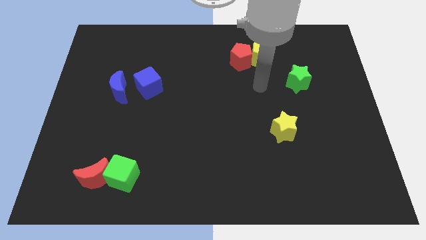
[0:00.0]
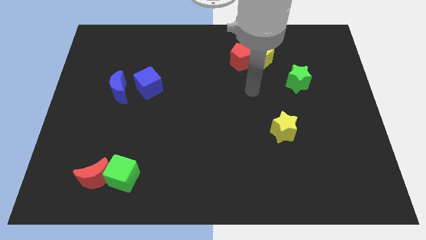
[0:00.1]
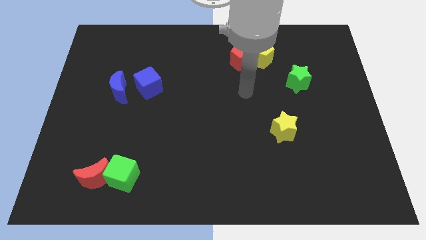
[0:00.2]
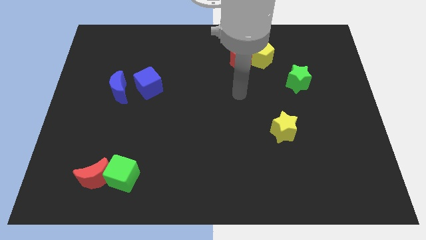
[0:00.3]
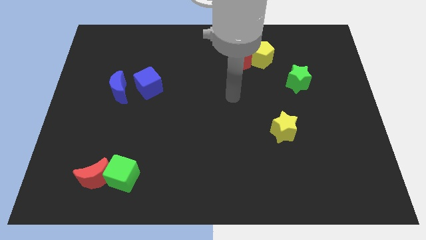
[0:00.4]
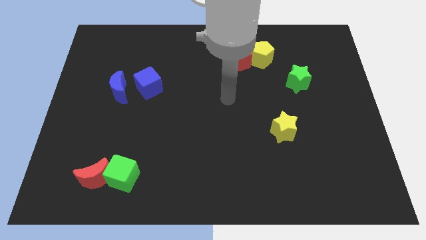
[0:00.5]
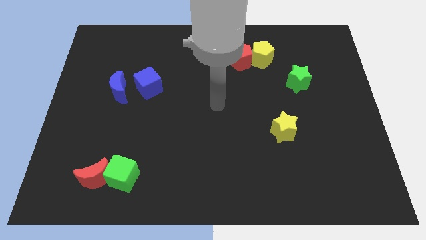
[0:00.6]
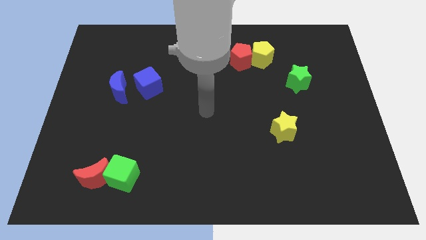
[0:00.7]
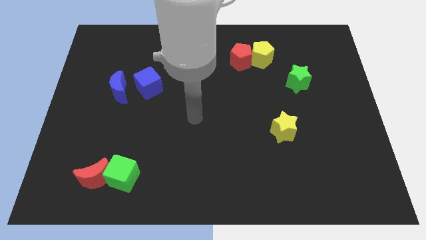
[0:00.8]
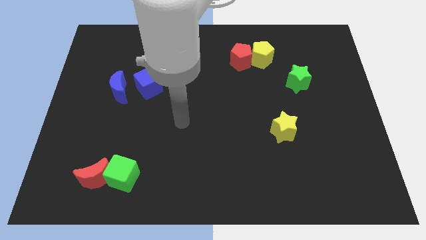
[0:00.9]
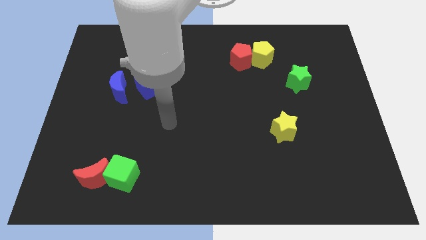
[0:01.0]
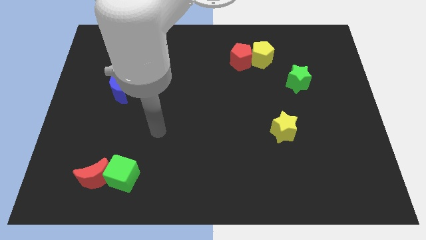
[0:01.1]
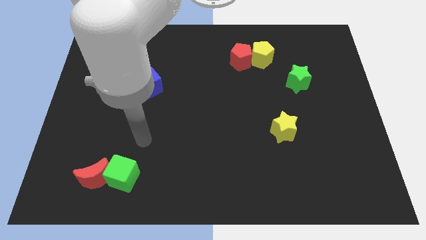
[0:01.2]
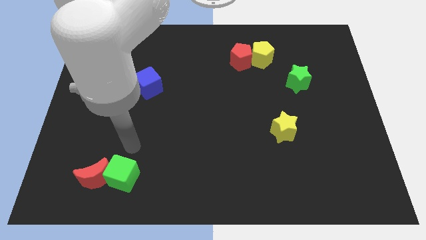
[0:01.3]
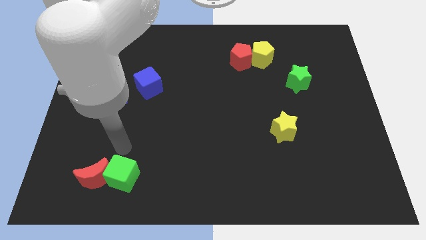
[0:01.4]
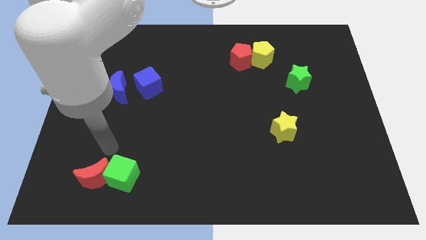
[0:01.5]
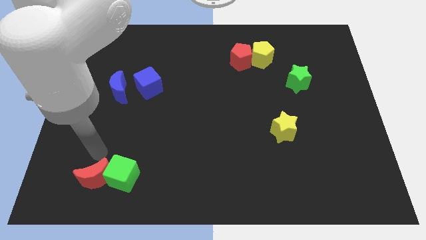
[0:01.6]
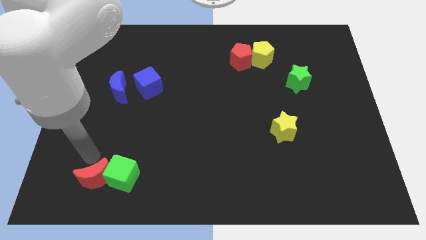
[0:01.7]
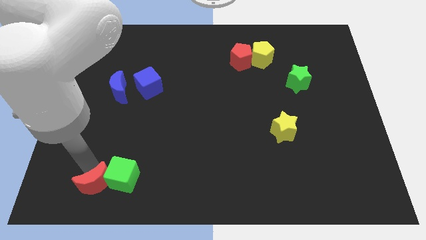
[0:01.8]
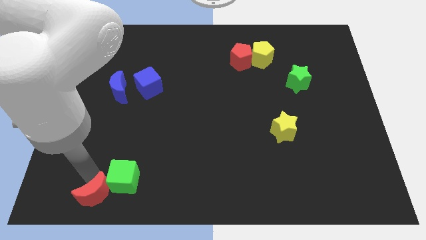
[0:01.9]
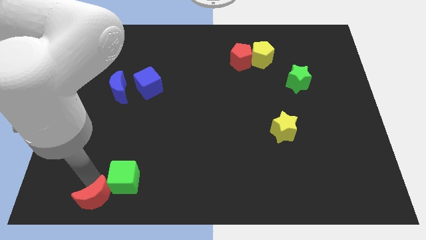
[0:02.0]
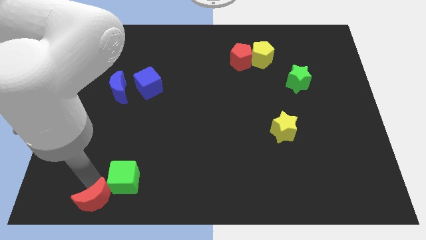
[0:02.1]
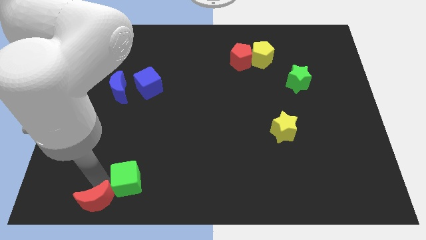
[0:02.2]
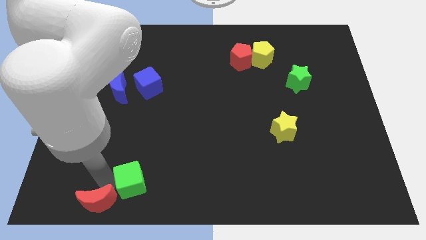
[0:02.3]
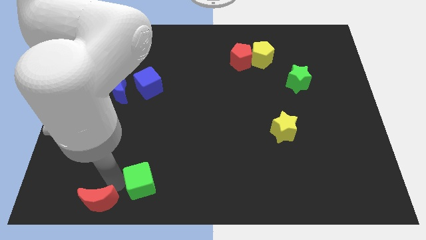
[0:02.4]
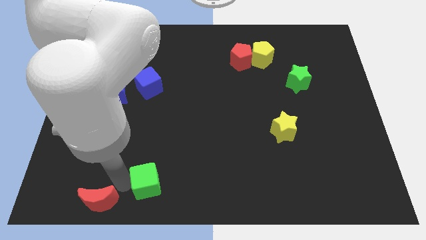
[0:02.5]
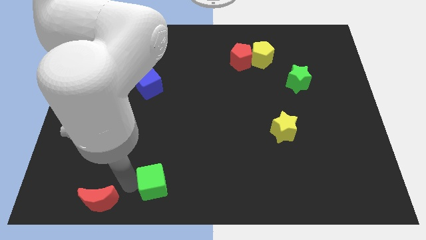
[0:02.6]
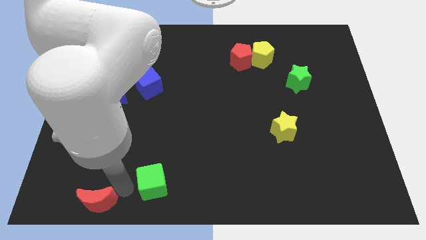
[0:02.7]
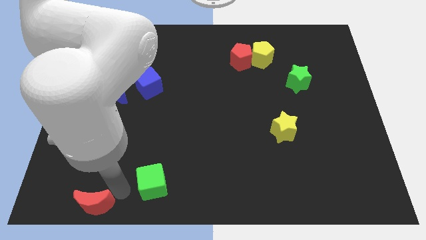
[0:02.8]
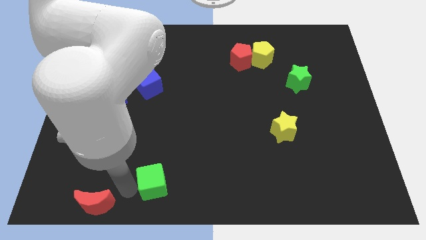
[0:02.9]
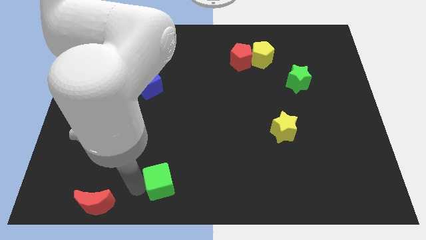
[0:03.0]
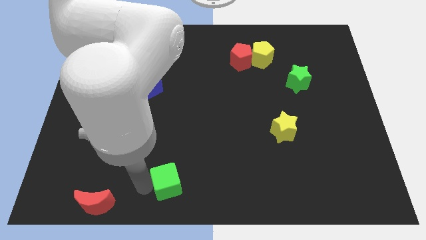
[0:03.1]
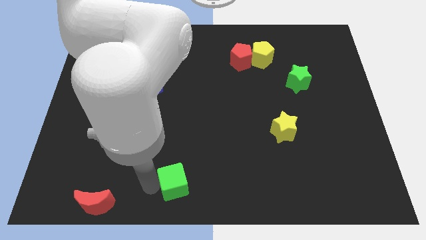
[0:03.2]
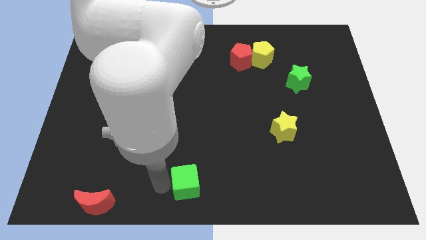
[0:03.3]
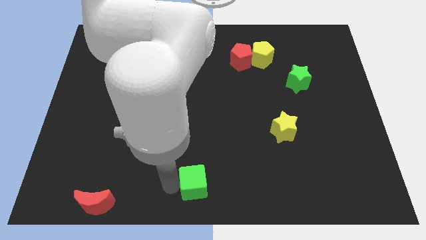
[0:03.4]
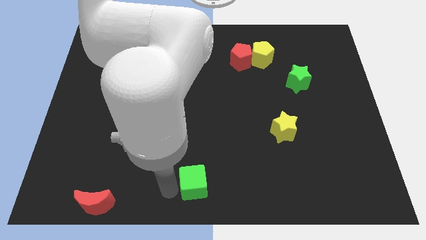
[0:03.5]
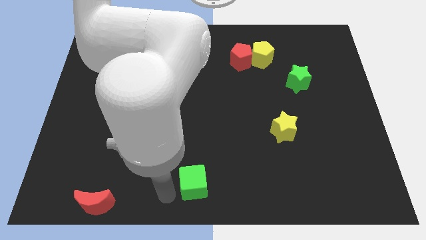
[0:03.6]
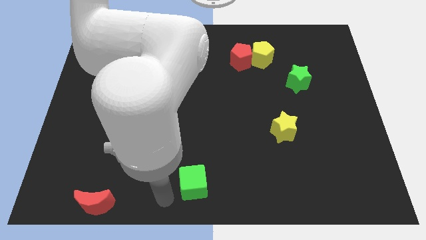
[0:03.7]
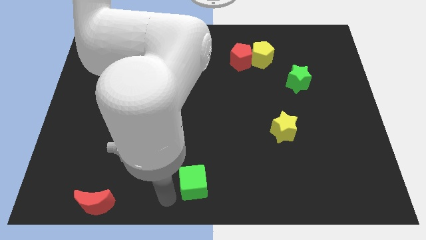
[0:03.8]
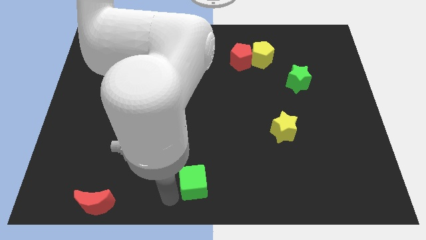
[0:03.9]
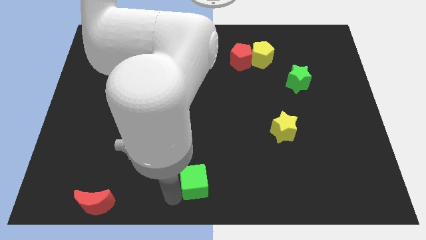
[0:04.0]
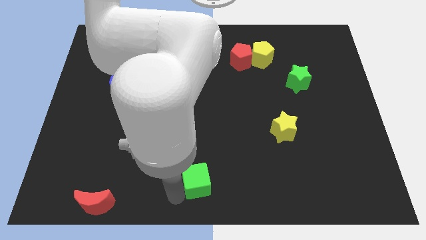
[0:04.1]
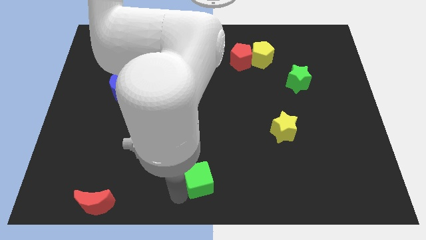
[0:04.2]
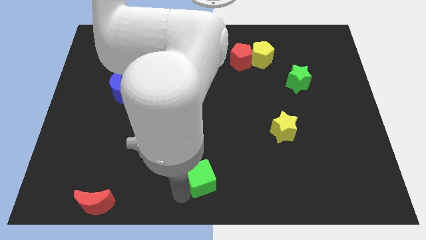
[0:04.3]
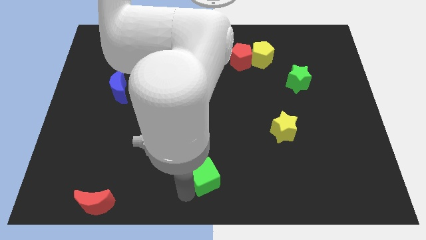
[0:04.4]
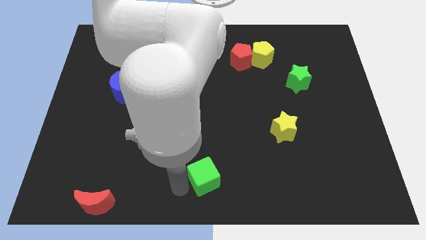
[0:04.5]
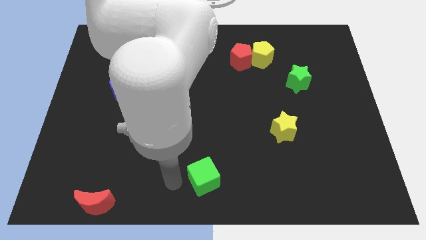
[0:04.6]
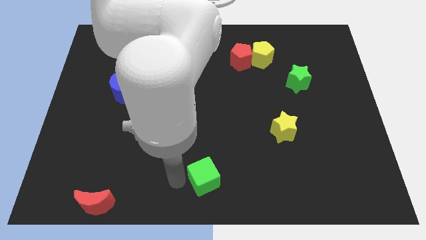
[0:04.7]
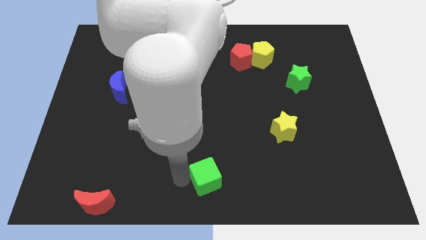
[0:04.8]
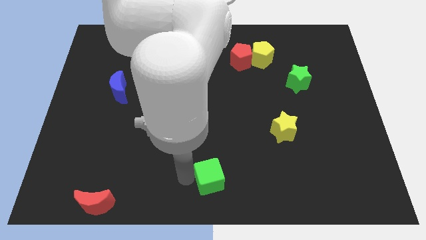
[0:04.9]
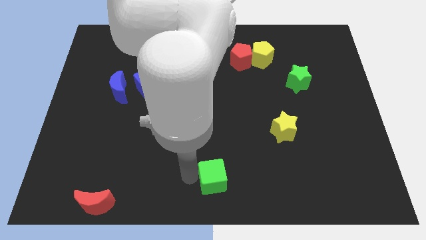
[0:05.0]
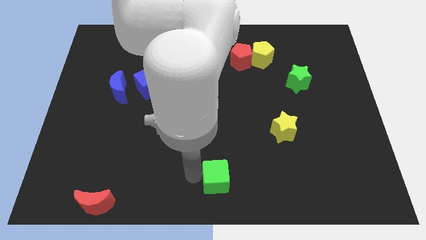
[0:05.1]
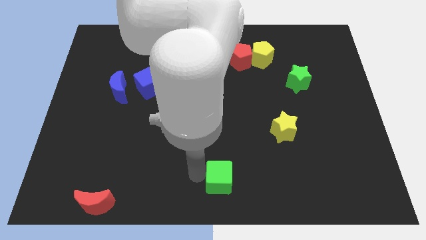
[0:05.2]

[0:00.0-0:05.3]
push the green cube right

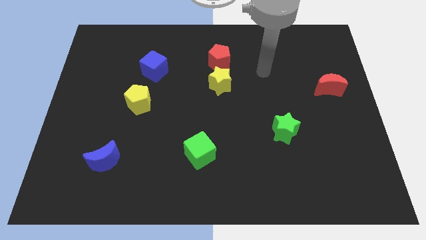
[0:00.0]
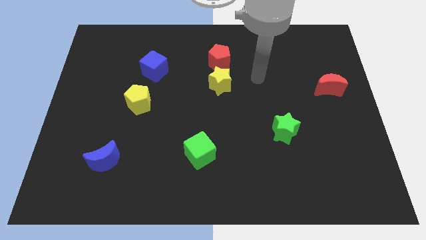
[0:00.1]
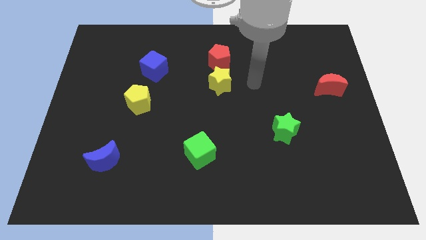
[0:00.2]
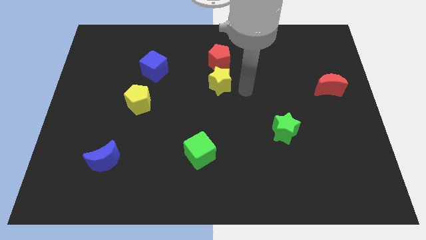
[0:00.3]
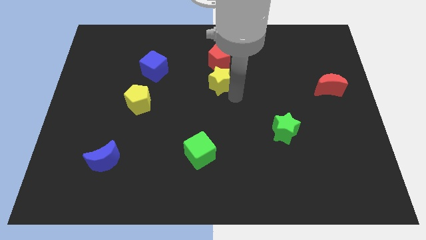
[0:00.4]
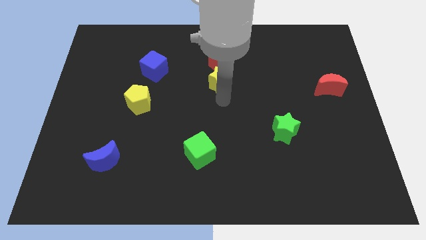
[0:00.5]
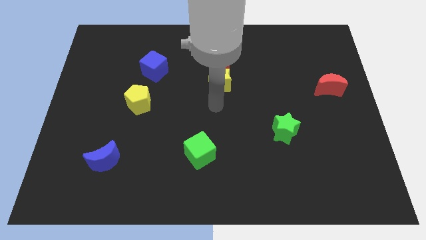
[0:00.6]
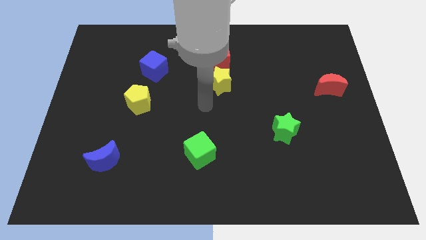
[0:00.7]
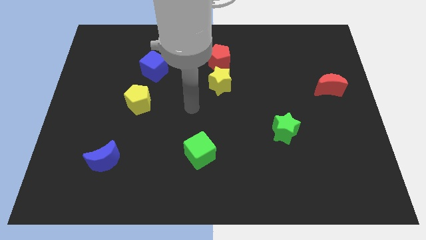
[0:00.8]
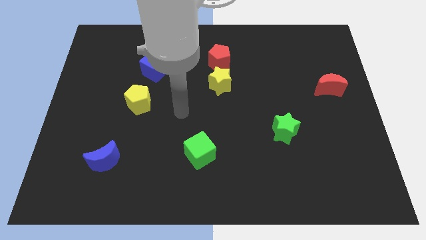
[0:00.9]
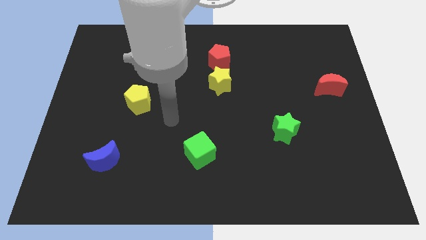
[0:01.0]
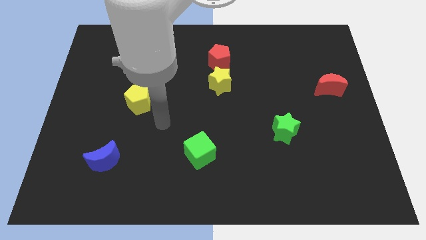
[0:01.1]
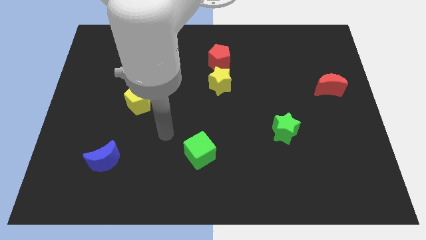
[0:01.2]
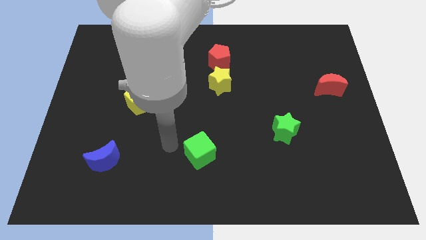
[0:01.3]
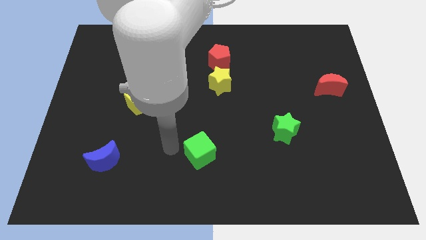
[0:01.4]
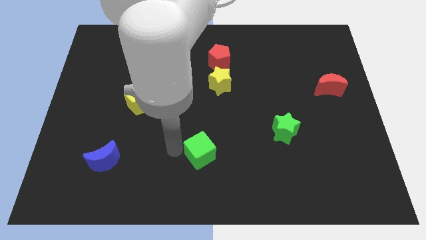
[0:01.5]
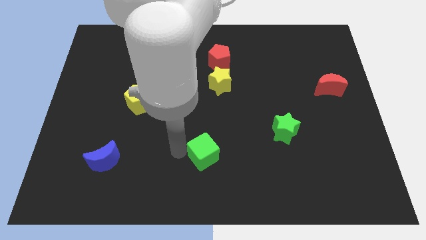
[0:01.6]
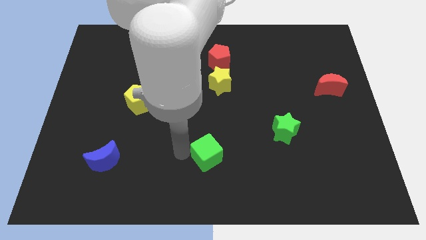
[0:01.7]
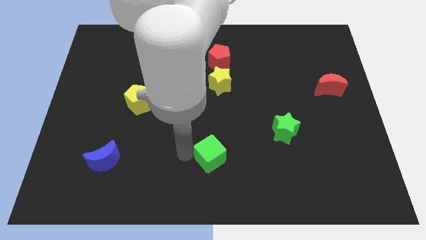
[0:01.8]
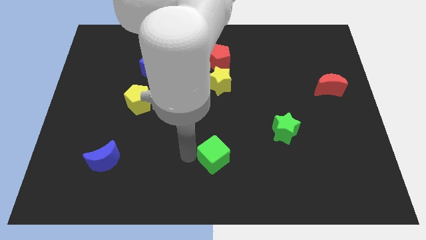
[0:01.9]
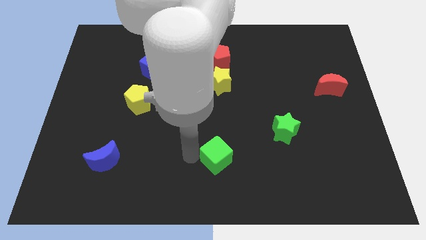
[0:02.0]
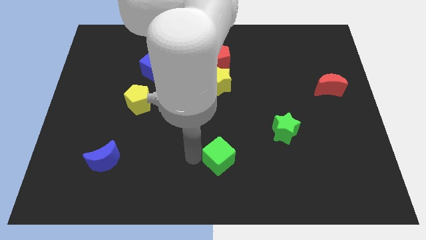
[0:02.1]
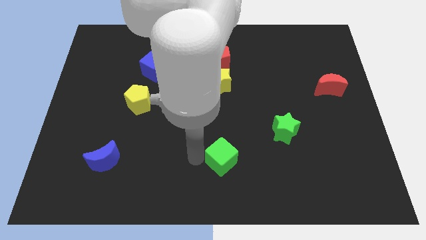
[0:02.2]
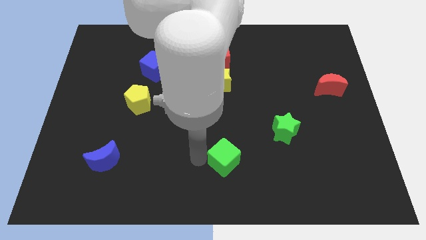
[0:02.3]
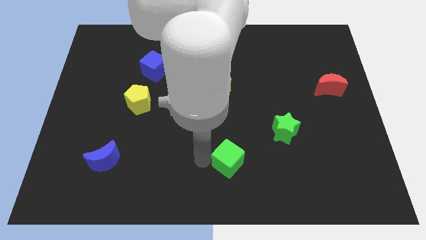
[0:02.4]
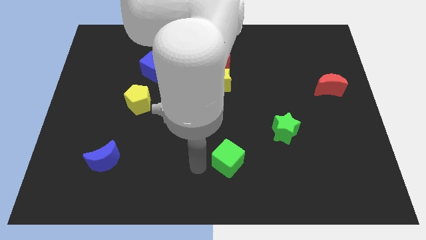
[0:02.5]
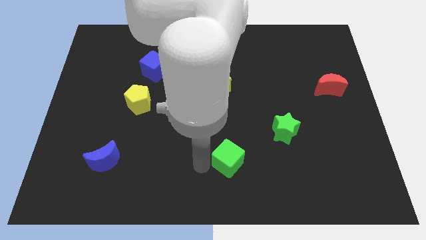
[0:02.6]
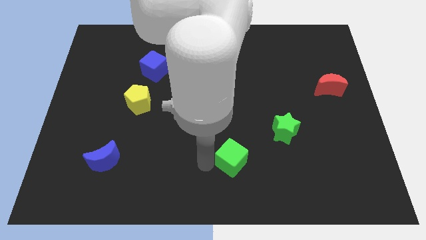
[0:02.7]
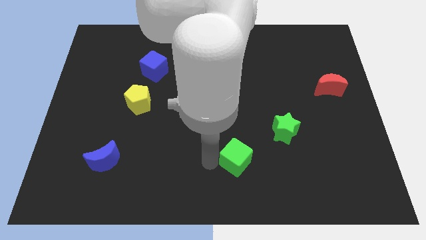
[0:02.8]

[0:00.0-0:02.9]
move the green cube a little to the right

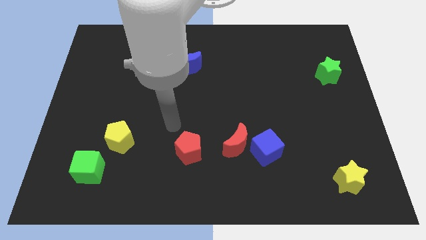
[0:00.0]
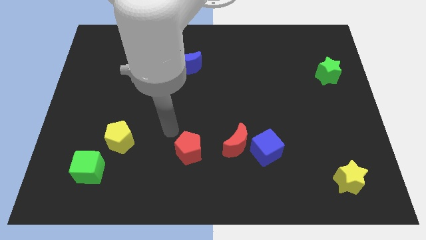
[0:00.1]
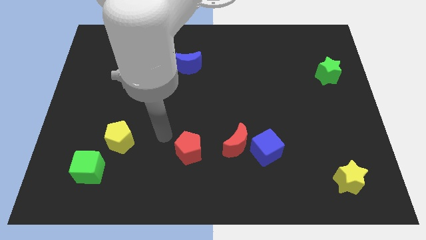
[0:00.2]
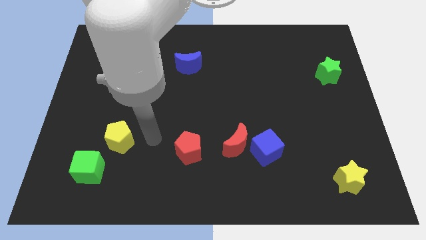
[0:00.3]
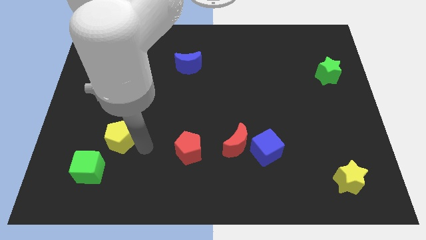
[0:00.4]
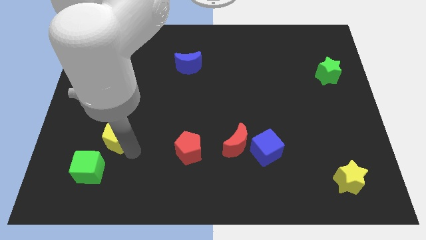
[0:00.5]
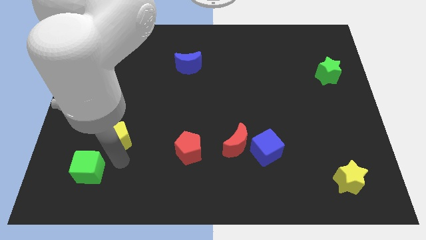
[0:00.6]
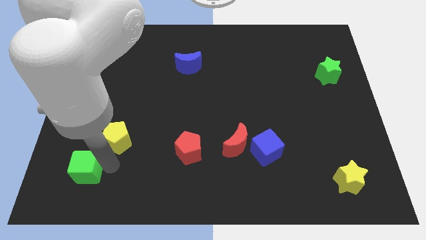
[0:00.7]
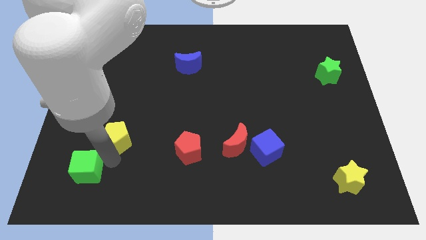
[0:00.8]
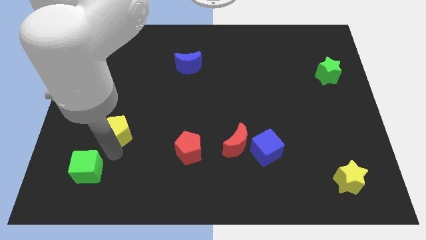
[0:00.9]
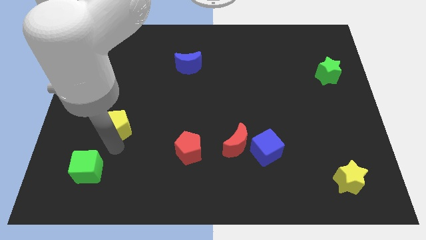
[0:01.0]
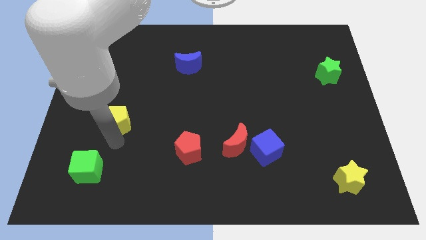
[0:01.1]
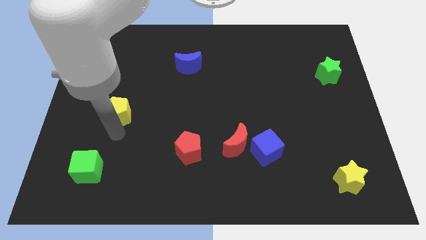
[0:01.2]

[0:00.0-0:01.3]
slightly push the yellow pentagon up
